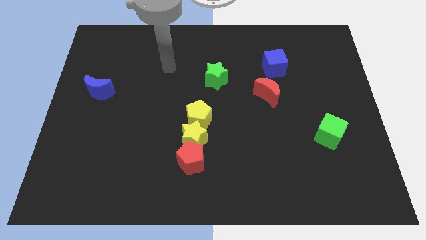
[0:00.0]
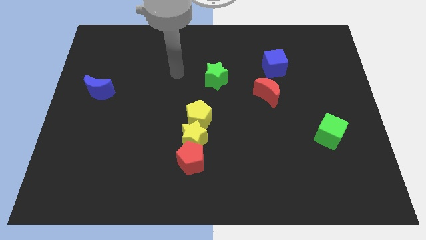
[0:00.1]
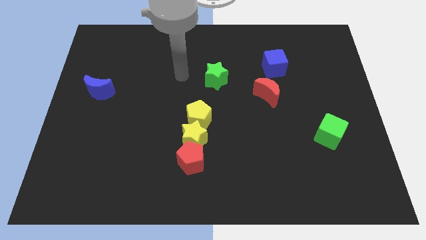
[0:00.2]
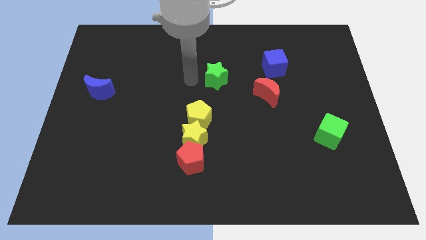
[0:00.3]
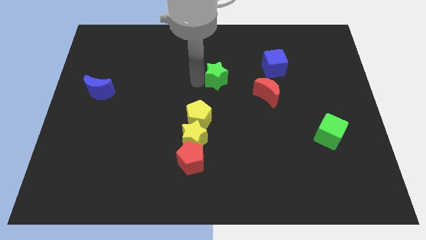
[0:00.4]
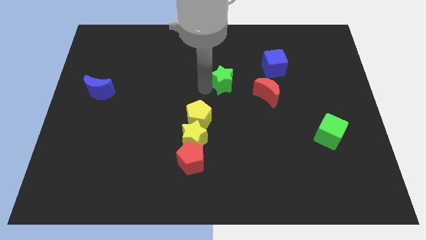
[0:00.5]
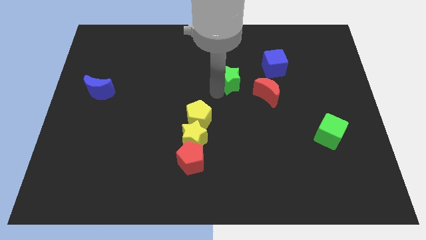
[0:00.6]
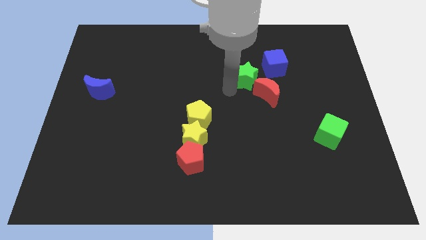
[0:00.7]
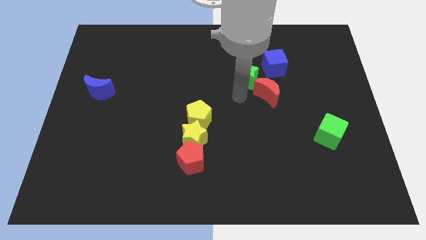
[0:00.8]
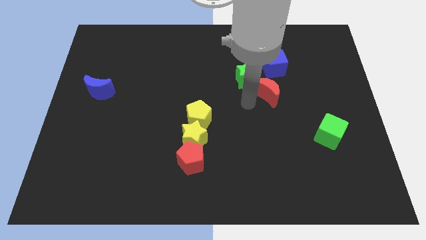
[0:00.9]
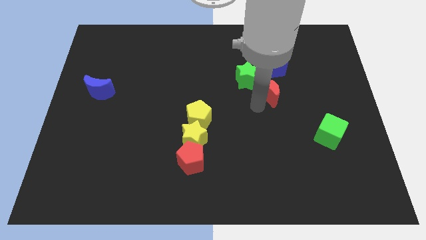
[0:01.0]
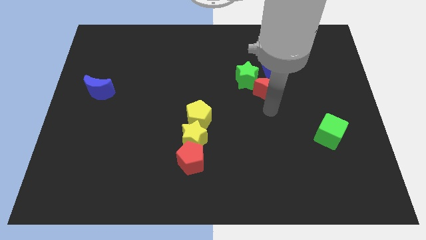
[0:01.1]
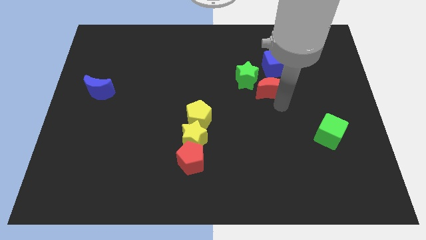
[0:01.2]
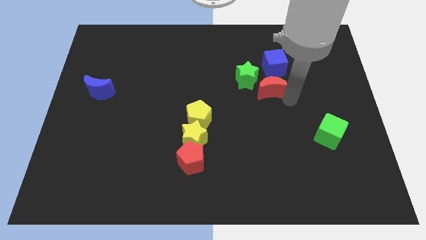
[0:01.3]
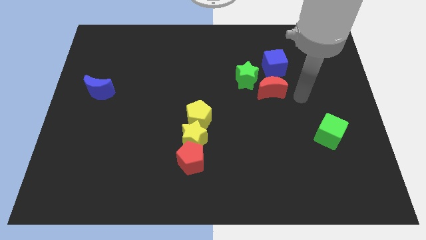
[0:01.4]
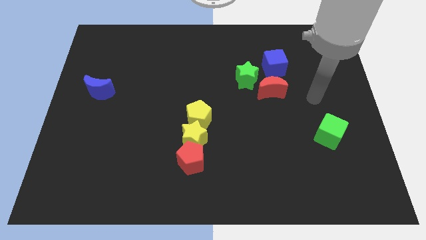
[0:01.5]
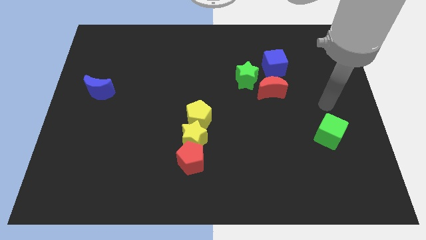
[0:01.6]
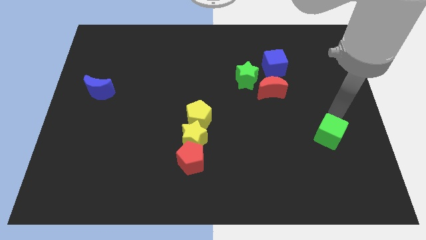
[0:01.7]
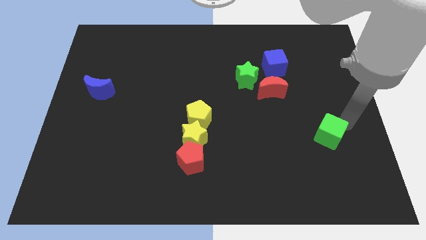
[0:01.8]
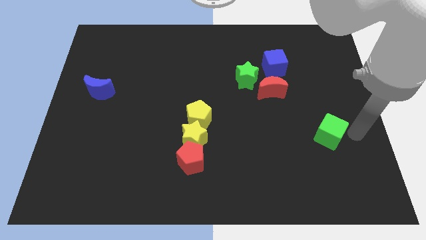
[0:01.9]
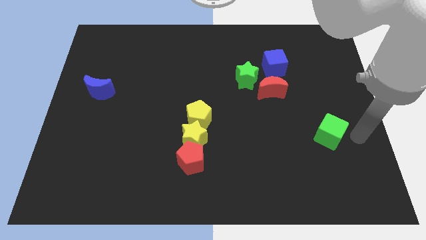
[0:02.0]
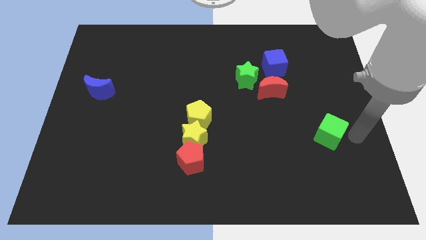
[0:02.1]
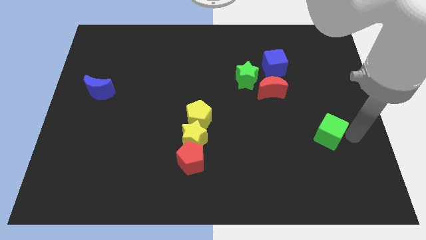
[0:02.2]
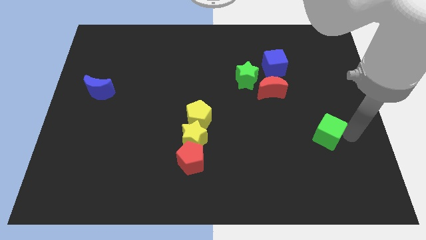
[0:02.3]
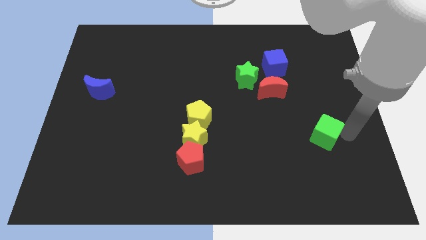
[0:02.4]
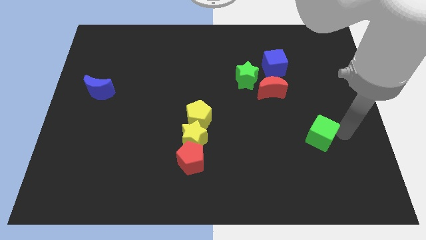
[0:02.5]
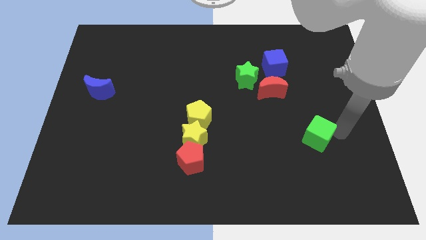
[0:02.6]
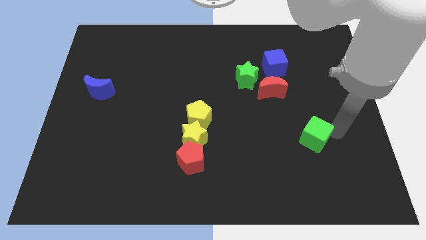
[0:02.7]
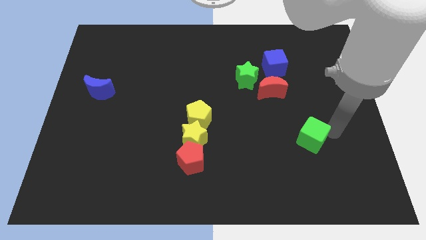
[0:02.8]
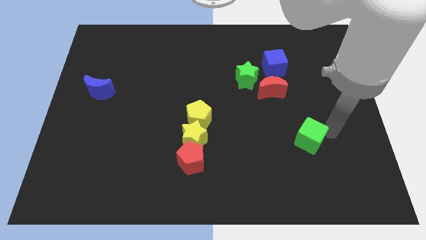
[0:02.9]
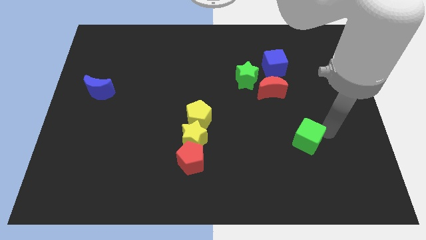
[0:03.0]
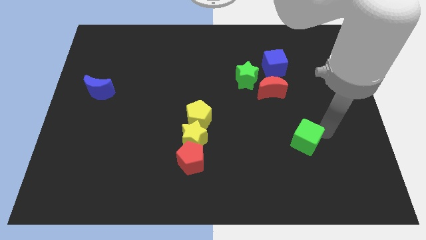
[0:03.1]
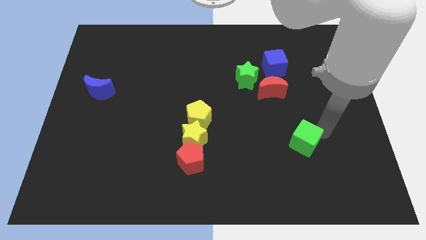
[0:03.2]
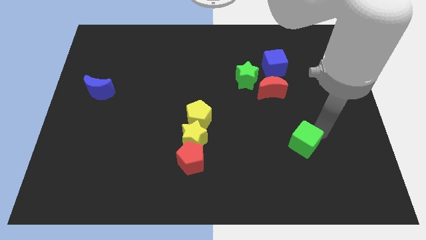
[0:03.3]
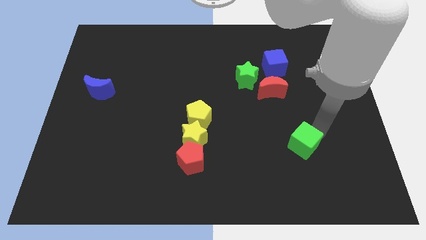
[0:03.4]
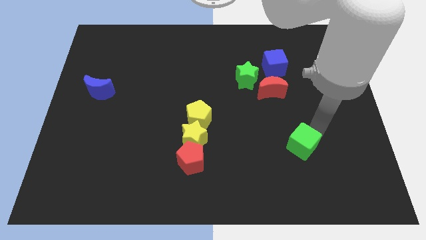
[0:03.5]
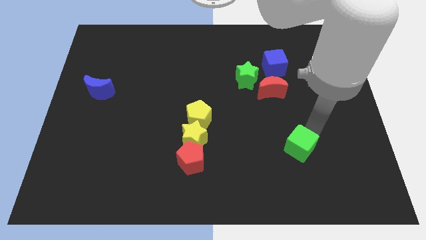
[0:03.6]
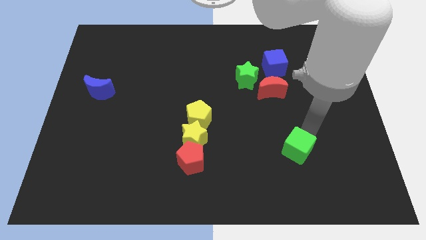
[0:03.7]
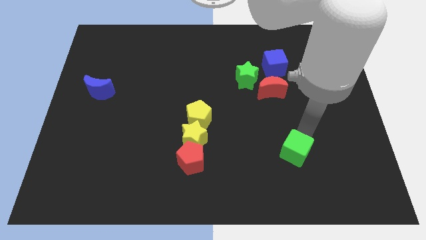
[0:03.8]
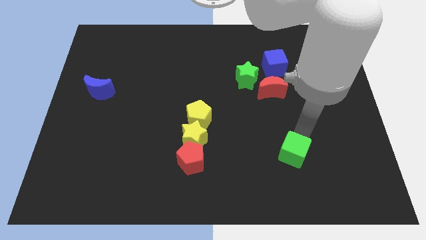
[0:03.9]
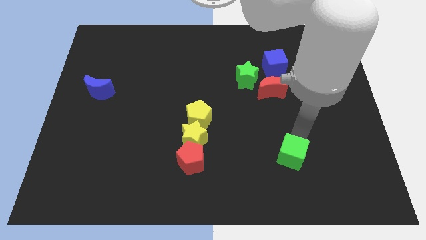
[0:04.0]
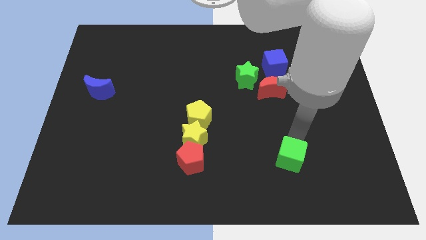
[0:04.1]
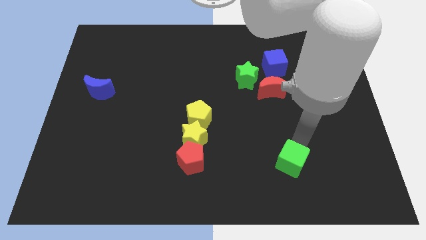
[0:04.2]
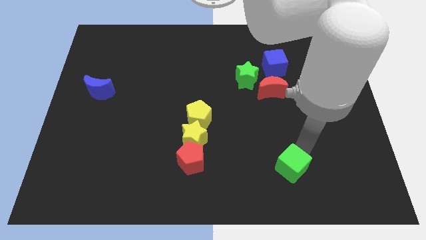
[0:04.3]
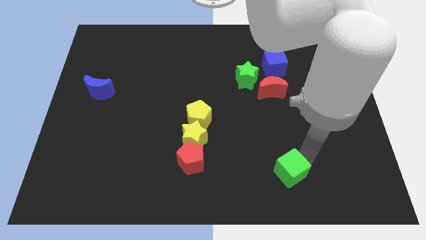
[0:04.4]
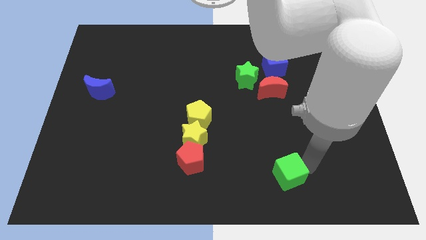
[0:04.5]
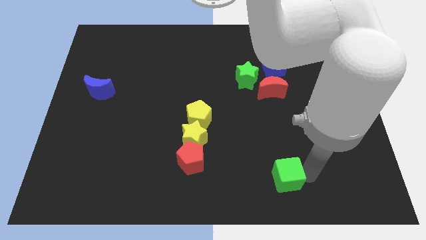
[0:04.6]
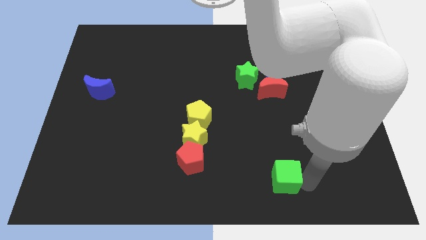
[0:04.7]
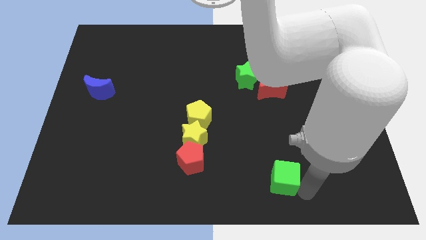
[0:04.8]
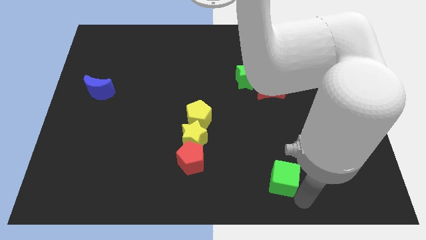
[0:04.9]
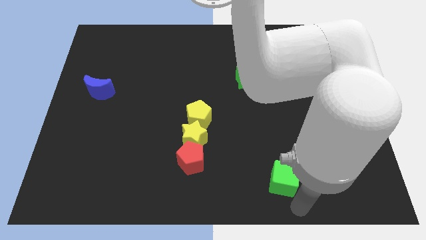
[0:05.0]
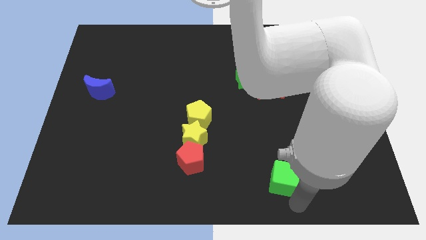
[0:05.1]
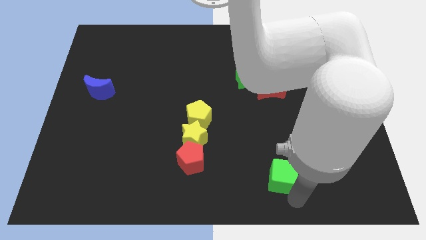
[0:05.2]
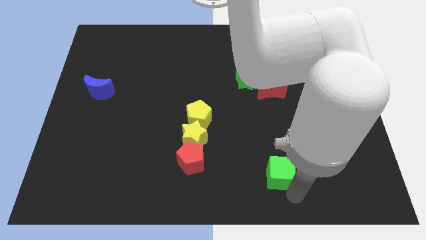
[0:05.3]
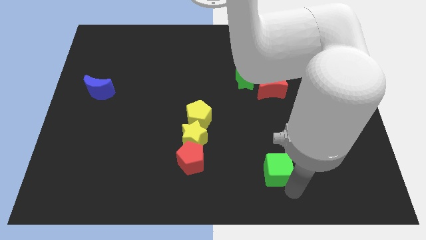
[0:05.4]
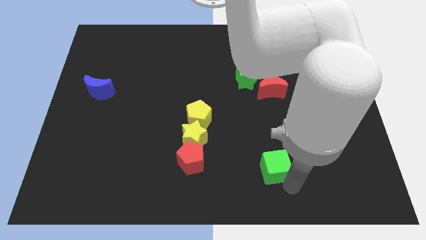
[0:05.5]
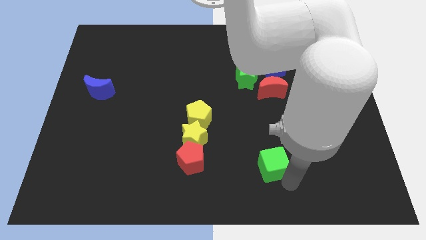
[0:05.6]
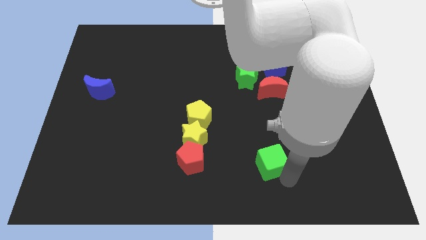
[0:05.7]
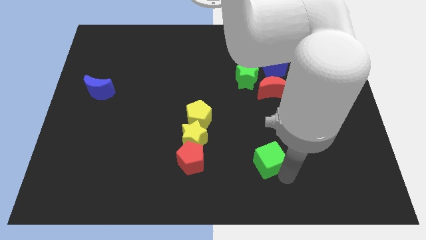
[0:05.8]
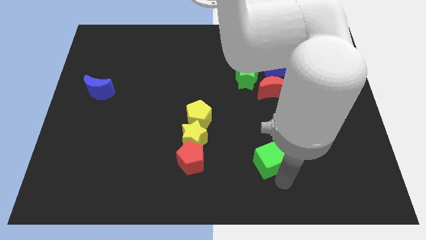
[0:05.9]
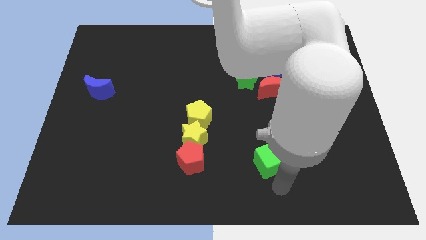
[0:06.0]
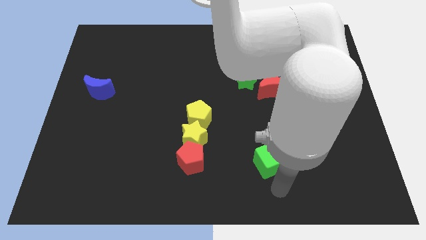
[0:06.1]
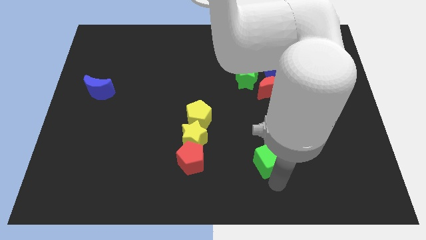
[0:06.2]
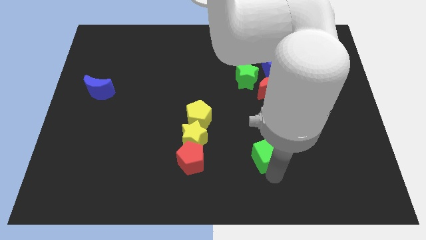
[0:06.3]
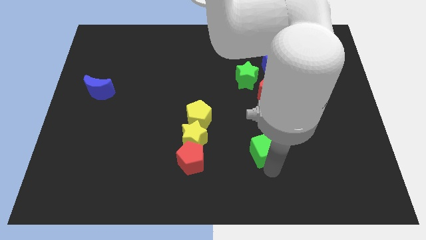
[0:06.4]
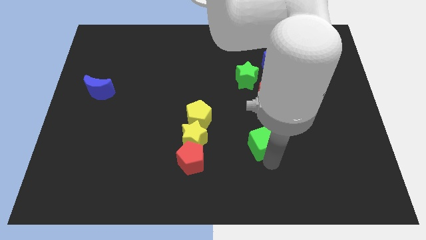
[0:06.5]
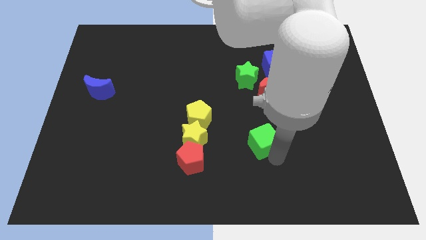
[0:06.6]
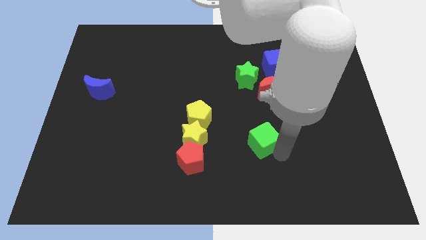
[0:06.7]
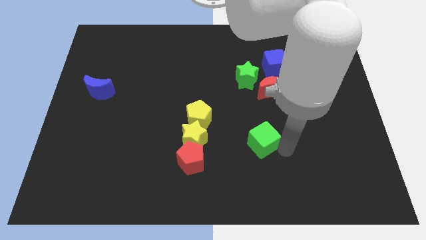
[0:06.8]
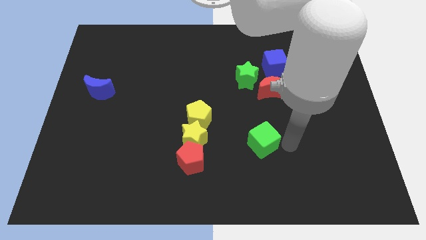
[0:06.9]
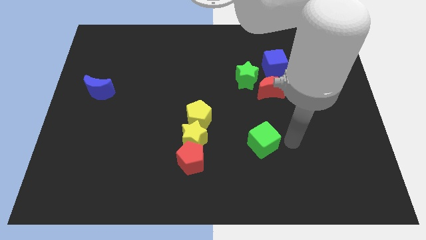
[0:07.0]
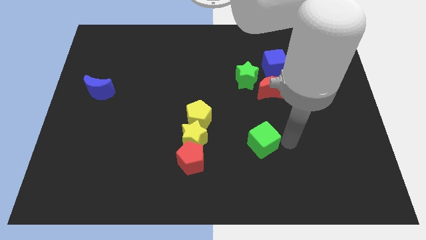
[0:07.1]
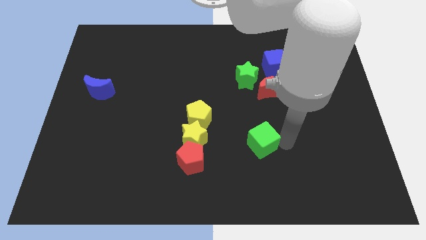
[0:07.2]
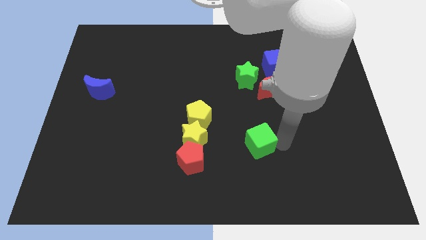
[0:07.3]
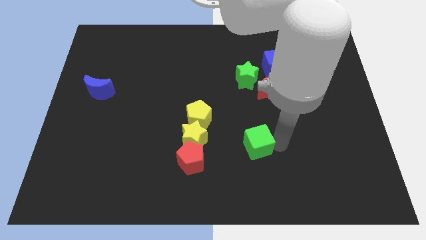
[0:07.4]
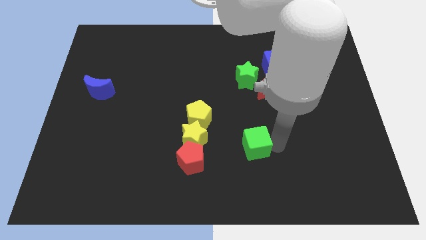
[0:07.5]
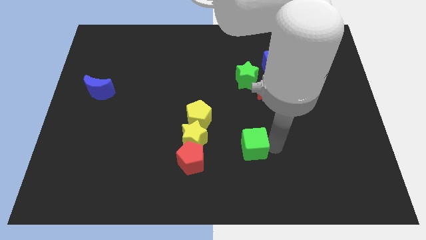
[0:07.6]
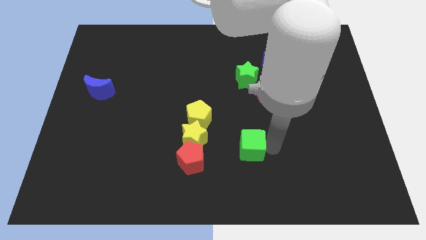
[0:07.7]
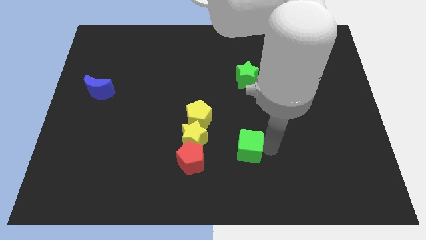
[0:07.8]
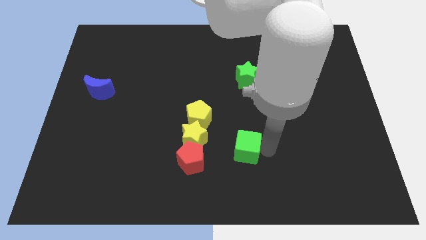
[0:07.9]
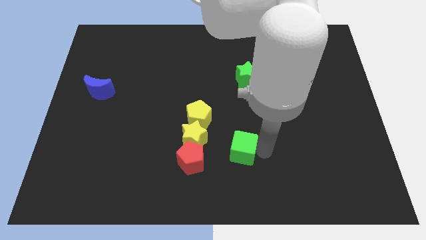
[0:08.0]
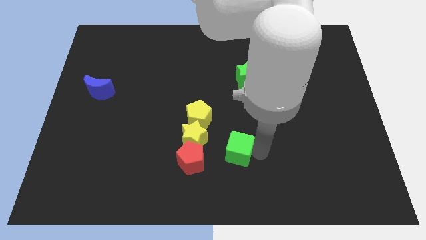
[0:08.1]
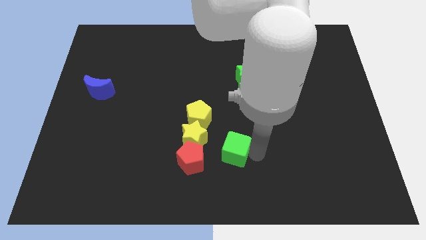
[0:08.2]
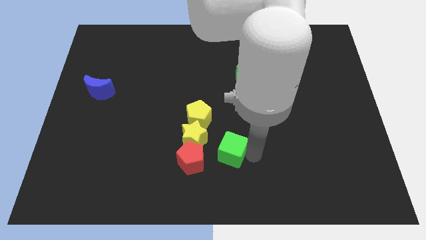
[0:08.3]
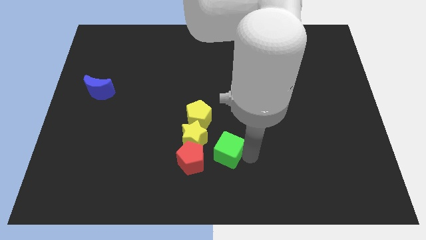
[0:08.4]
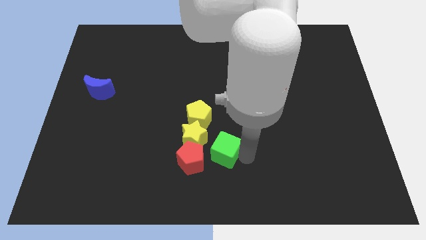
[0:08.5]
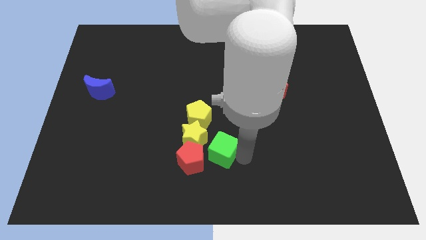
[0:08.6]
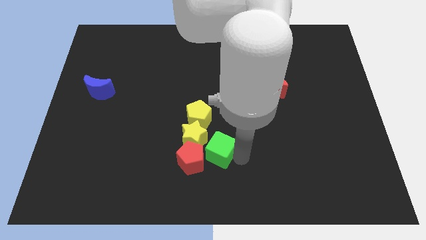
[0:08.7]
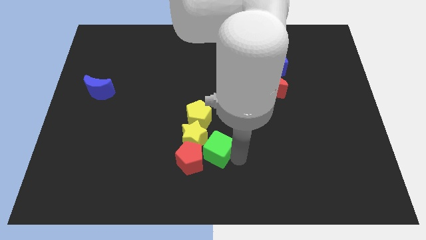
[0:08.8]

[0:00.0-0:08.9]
push the green cube next to the yellow star
